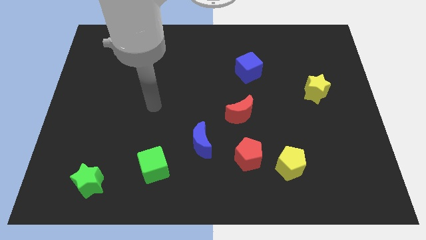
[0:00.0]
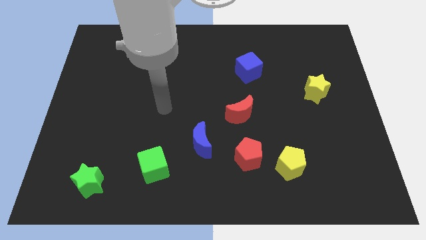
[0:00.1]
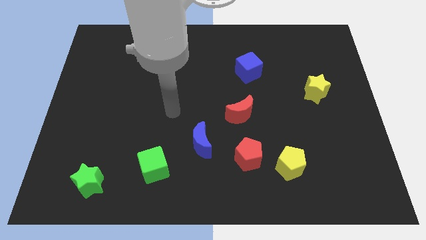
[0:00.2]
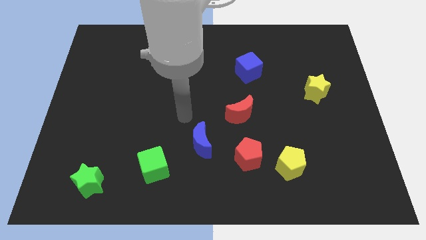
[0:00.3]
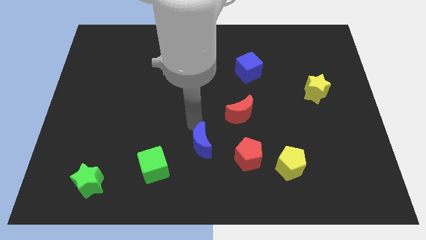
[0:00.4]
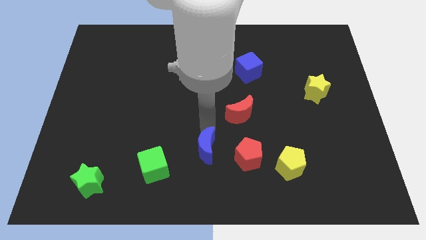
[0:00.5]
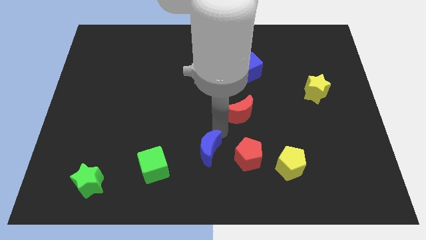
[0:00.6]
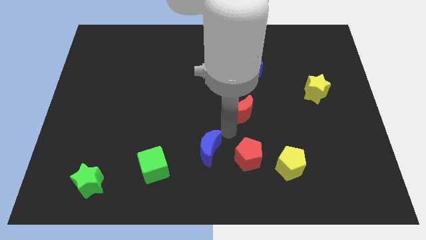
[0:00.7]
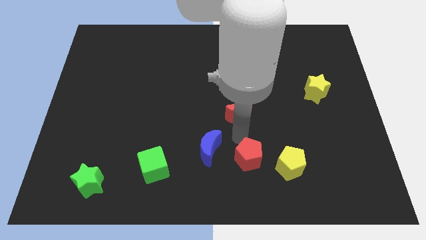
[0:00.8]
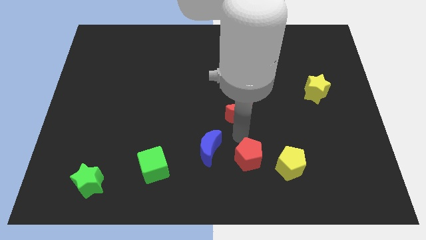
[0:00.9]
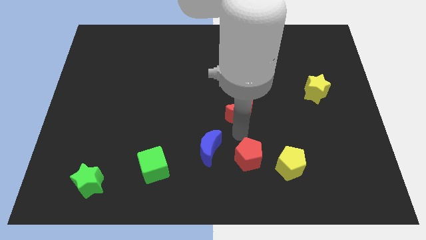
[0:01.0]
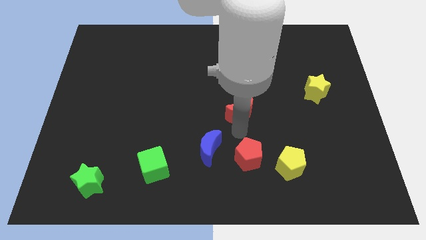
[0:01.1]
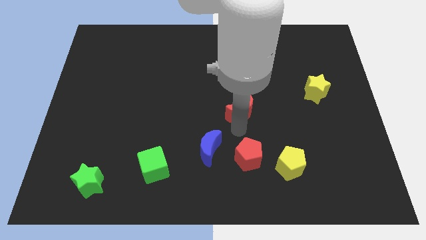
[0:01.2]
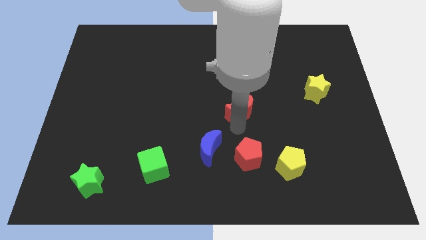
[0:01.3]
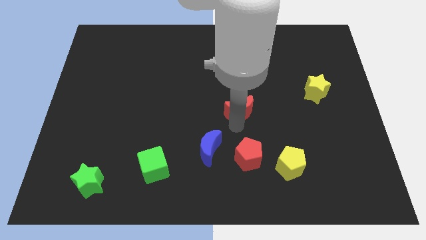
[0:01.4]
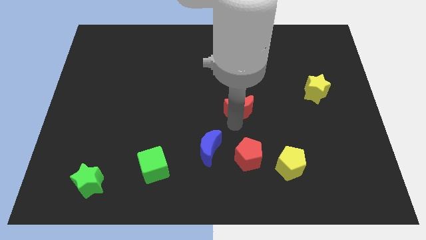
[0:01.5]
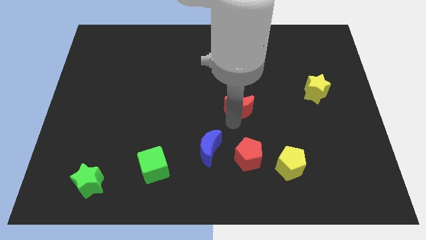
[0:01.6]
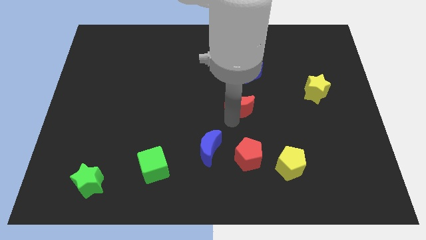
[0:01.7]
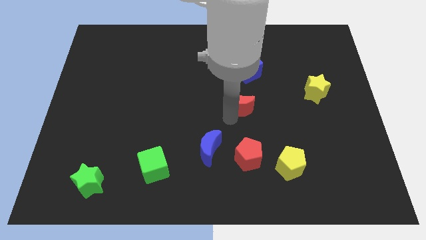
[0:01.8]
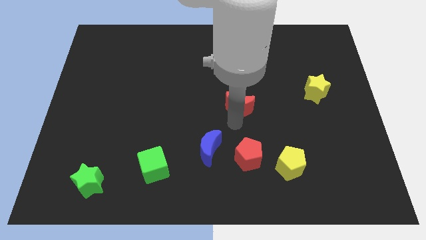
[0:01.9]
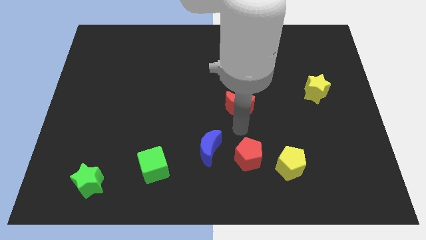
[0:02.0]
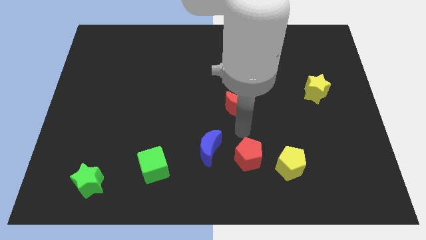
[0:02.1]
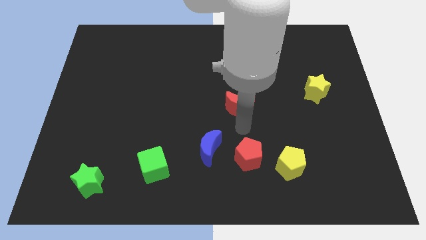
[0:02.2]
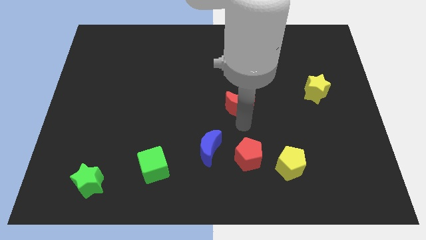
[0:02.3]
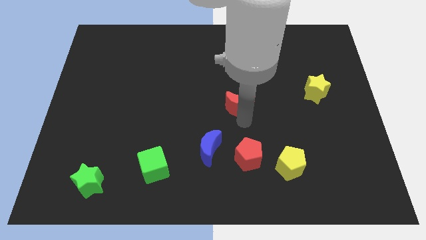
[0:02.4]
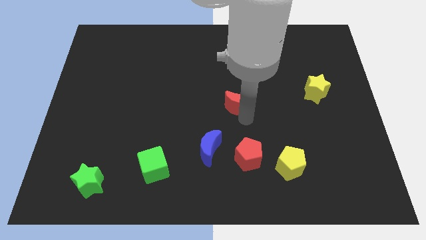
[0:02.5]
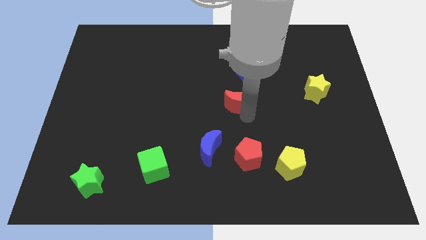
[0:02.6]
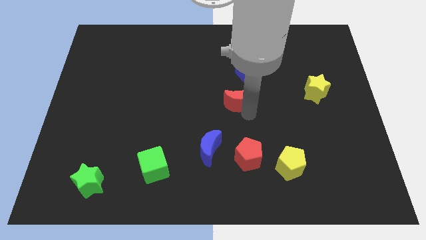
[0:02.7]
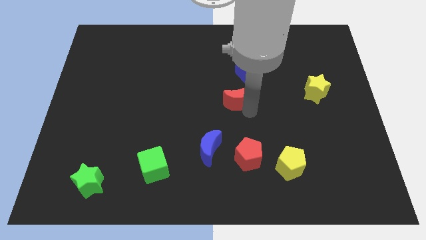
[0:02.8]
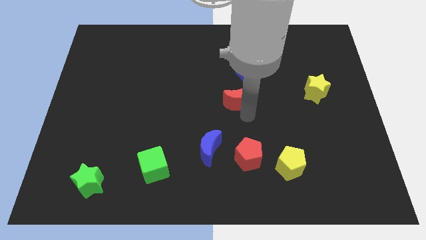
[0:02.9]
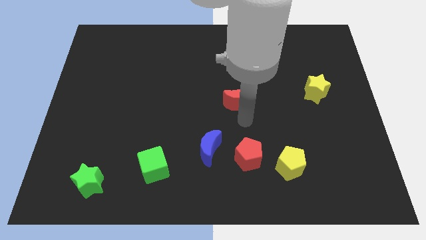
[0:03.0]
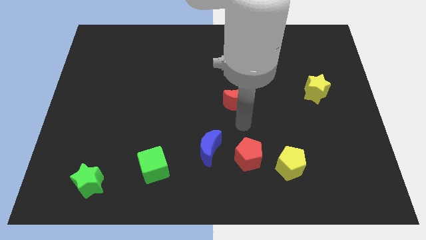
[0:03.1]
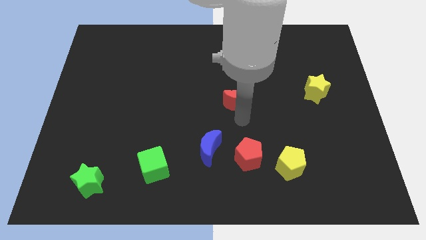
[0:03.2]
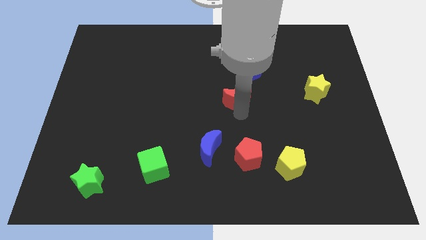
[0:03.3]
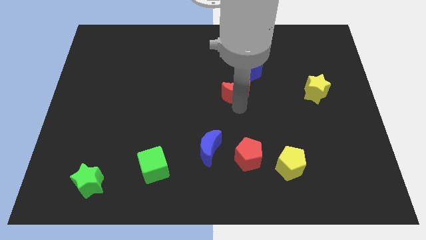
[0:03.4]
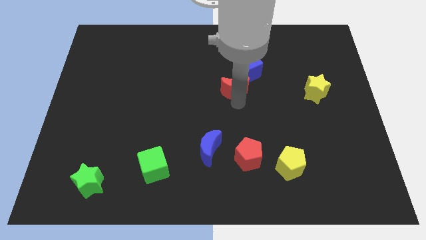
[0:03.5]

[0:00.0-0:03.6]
slightly push the red moon up

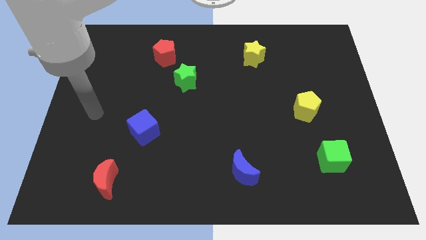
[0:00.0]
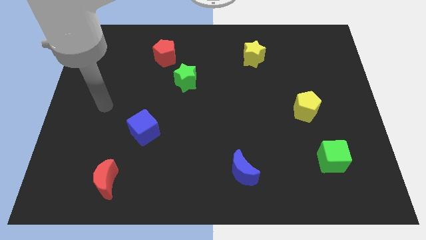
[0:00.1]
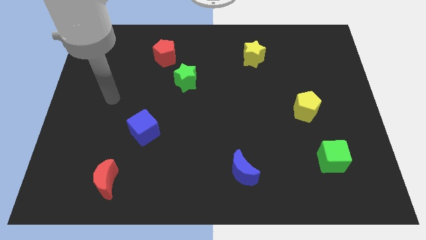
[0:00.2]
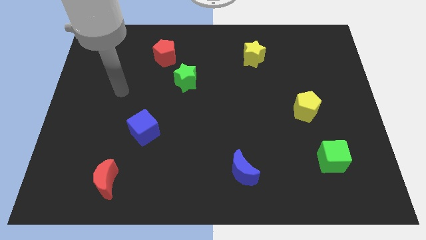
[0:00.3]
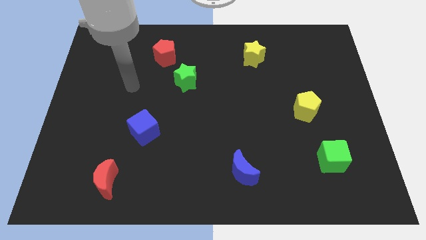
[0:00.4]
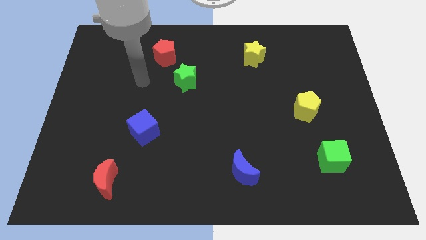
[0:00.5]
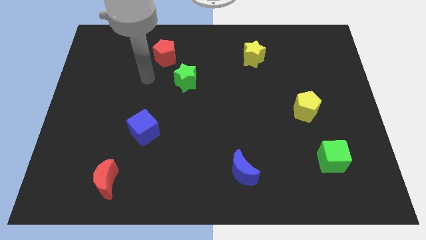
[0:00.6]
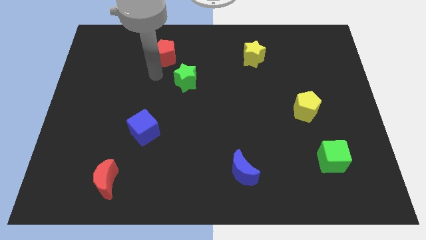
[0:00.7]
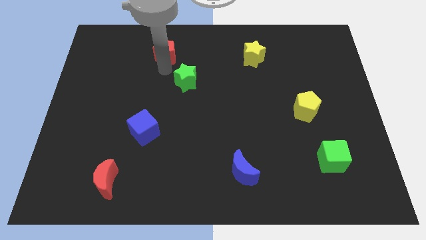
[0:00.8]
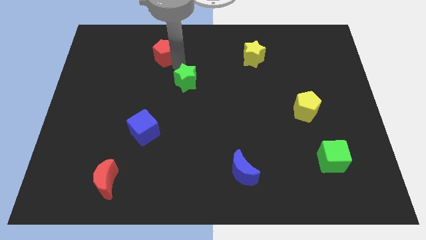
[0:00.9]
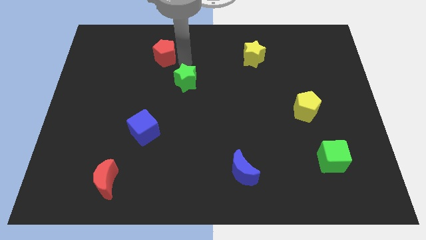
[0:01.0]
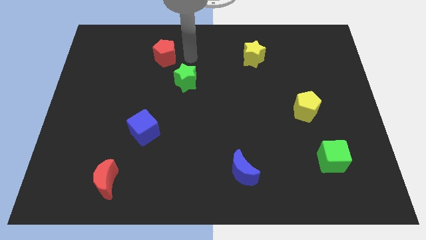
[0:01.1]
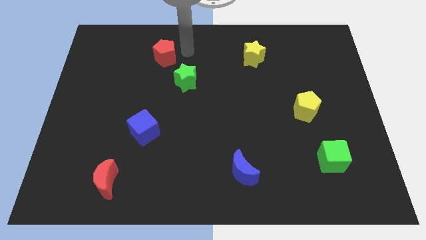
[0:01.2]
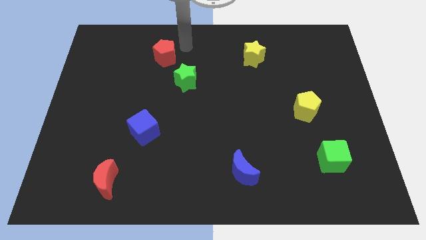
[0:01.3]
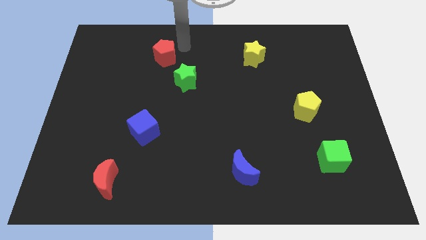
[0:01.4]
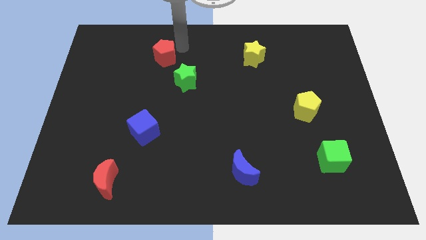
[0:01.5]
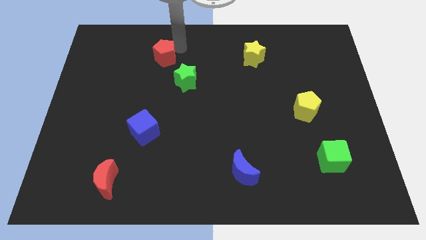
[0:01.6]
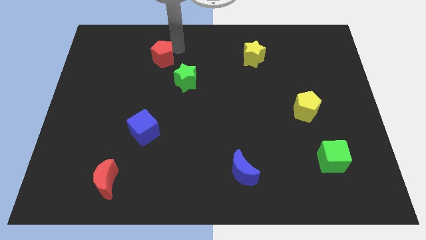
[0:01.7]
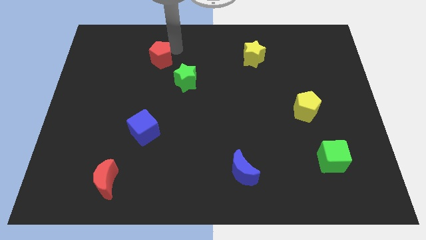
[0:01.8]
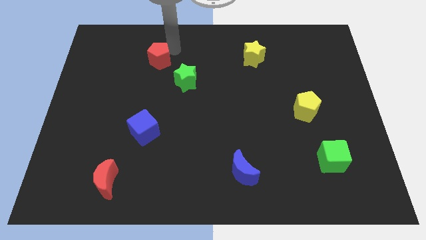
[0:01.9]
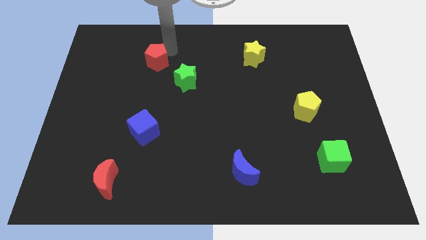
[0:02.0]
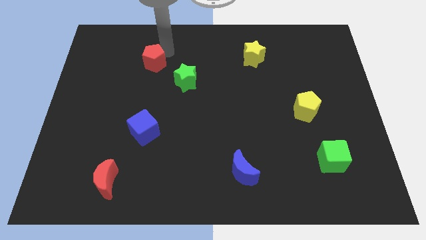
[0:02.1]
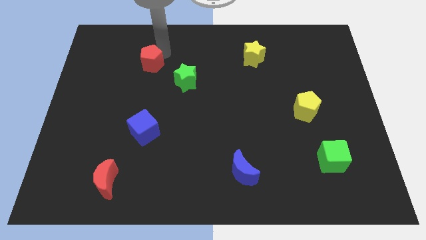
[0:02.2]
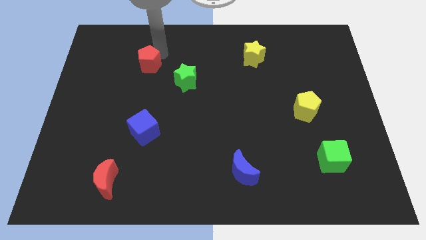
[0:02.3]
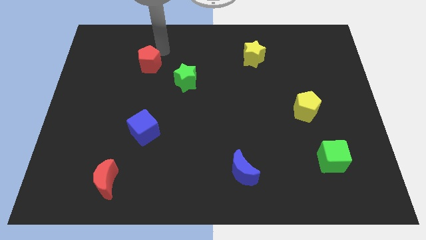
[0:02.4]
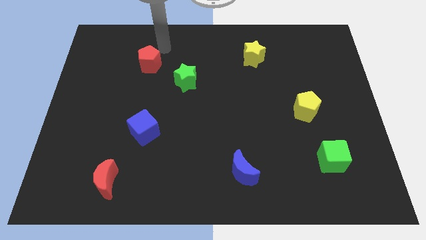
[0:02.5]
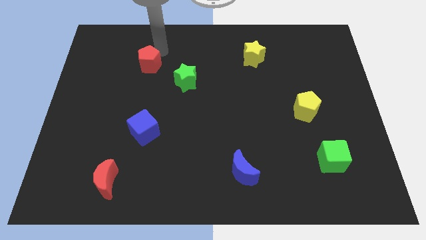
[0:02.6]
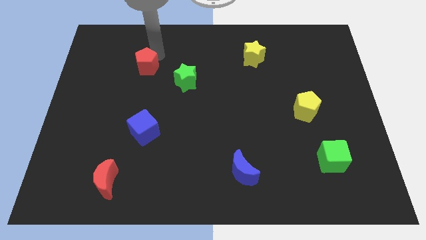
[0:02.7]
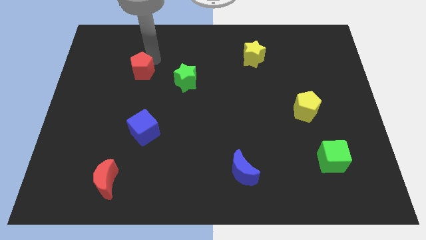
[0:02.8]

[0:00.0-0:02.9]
slide the red pentagon downwards and left a little bit

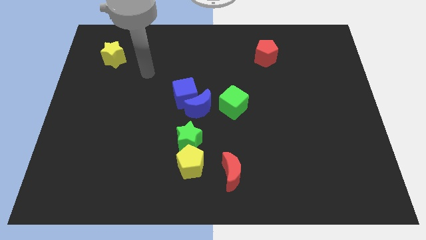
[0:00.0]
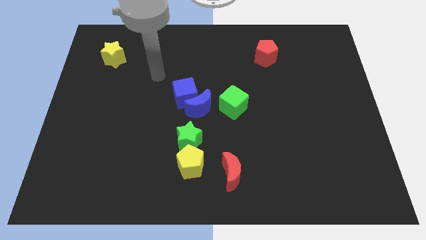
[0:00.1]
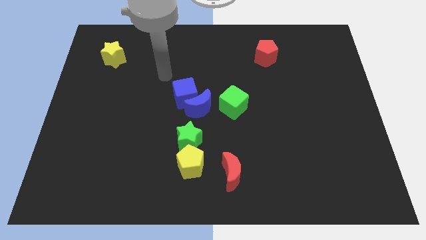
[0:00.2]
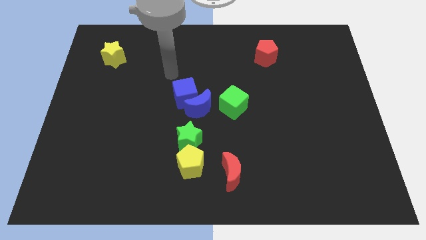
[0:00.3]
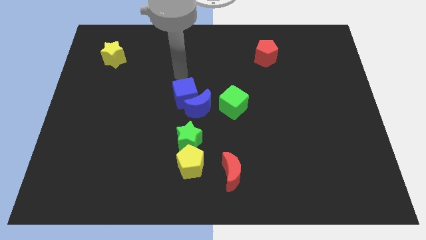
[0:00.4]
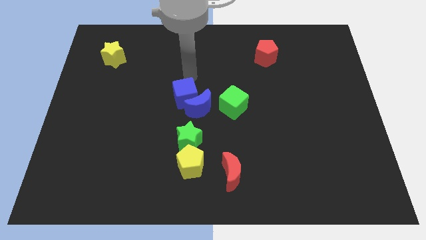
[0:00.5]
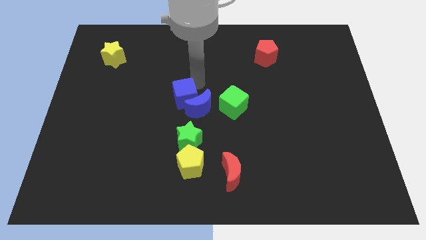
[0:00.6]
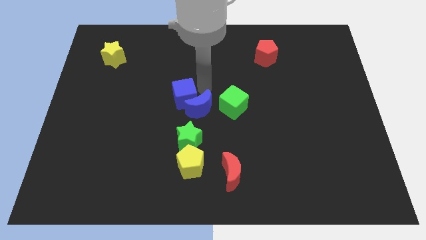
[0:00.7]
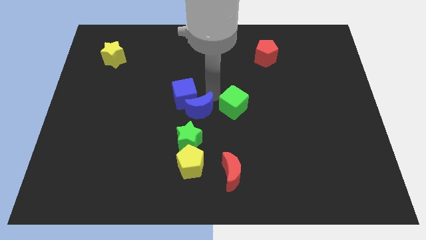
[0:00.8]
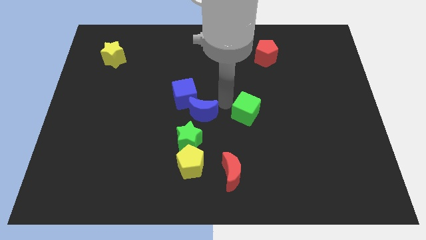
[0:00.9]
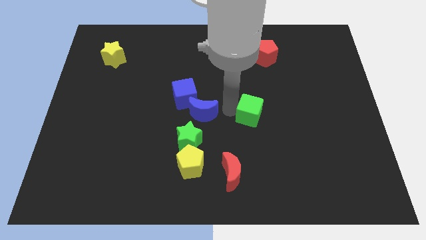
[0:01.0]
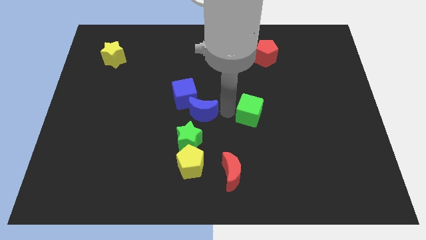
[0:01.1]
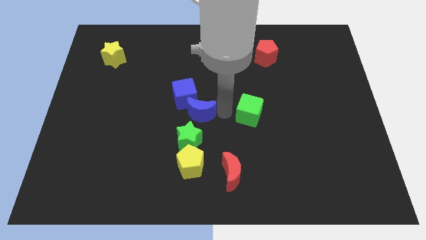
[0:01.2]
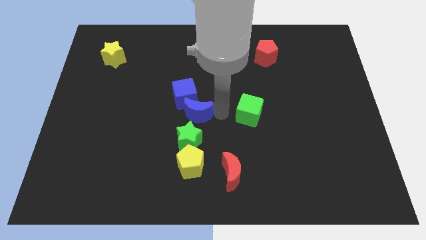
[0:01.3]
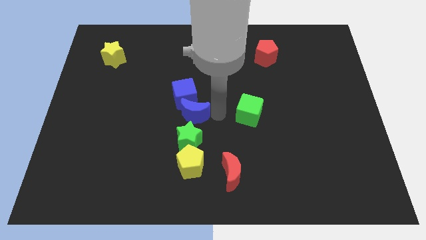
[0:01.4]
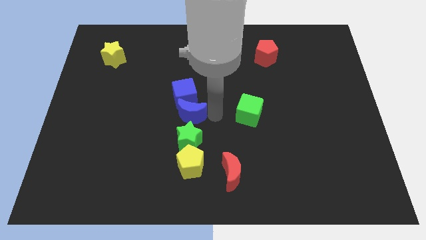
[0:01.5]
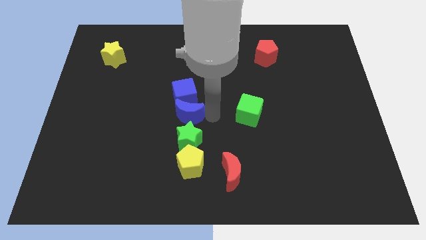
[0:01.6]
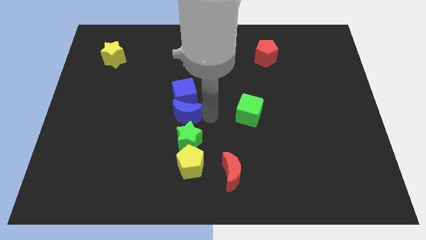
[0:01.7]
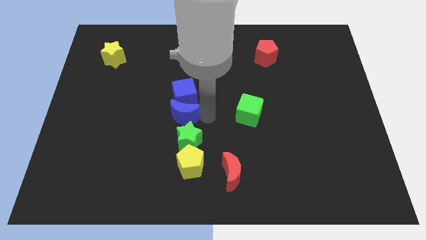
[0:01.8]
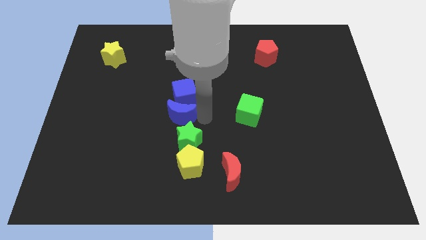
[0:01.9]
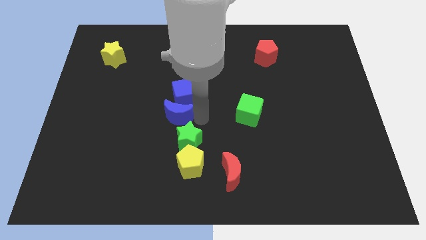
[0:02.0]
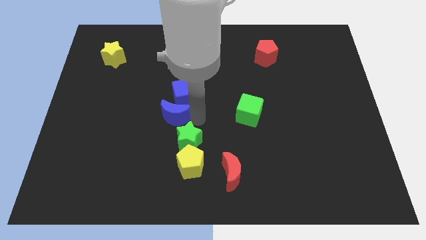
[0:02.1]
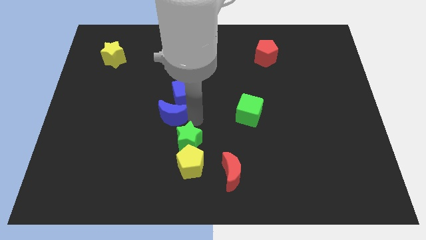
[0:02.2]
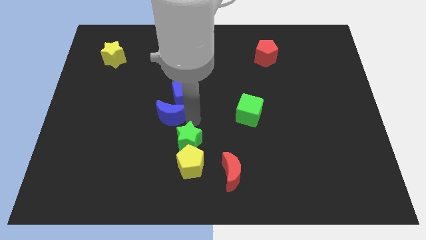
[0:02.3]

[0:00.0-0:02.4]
slide the blue moon a bit to the left
